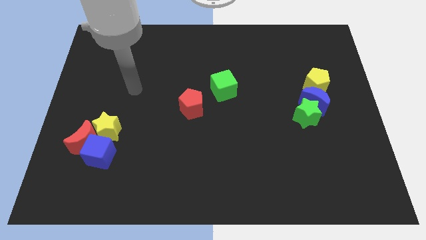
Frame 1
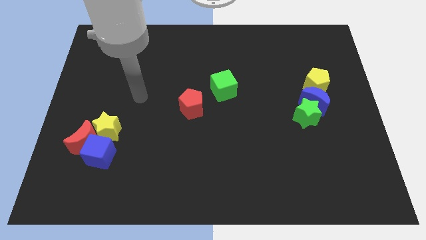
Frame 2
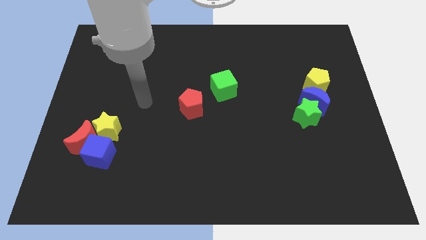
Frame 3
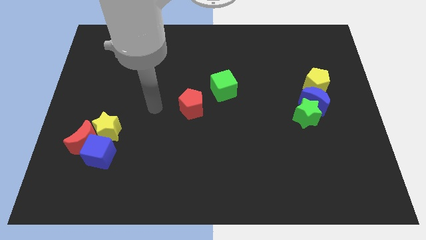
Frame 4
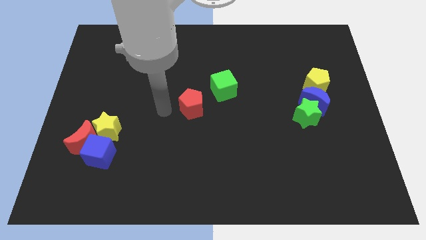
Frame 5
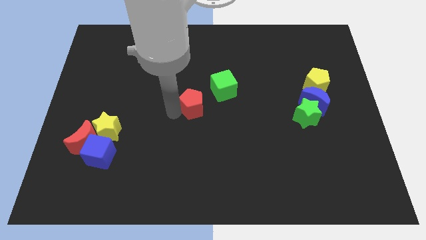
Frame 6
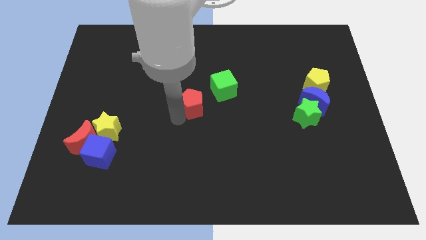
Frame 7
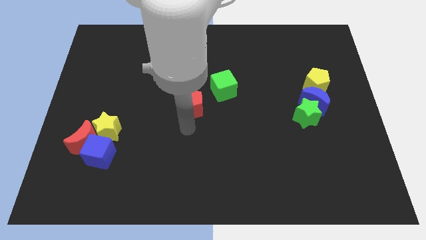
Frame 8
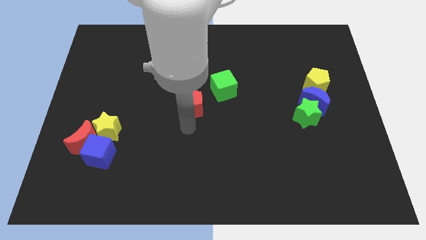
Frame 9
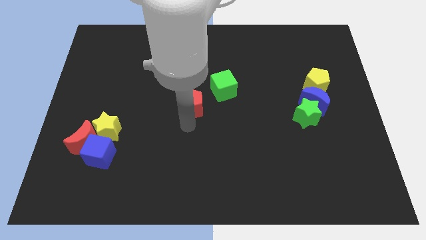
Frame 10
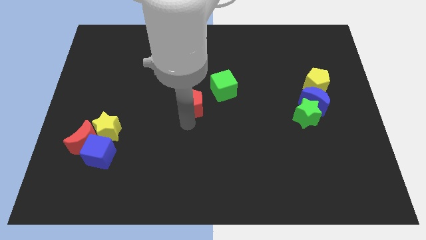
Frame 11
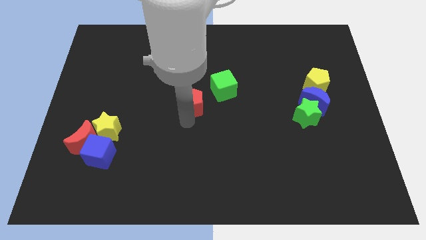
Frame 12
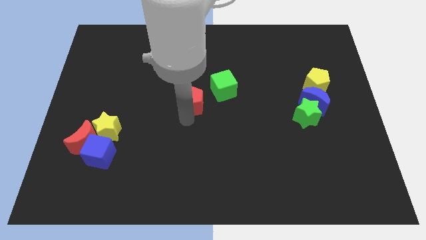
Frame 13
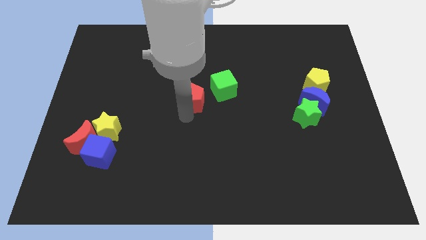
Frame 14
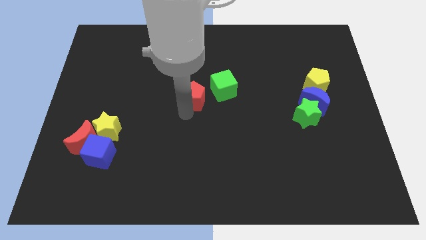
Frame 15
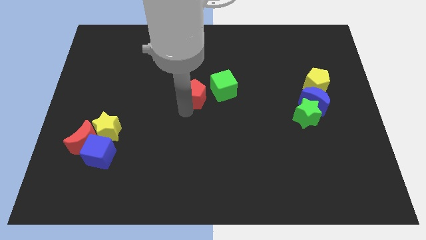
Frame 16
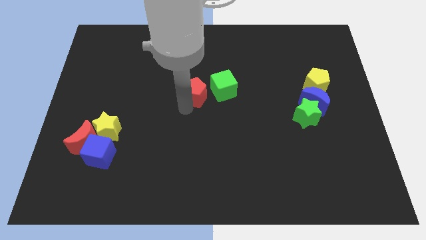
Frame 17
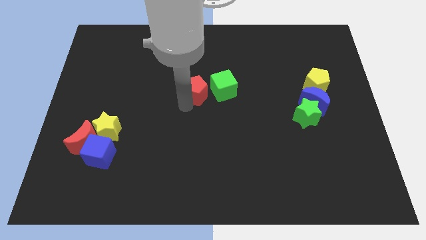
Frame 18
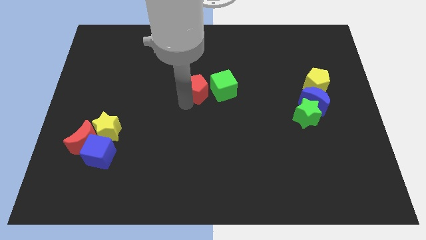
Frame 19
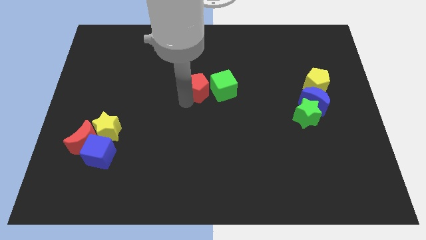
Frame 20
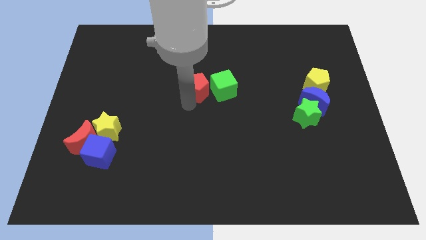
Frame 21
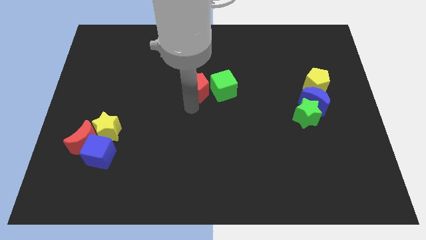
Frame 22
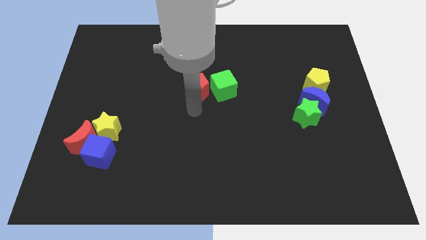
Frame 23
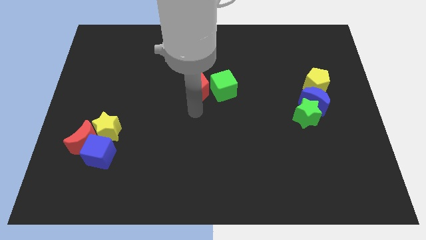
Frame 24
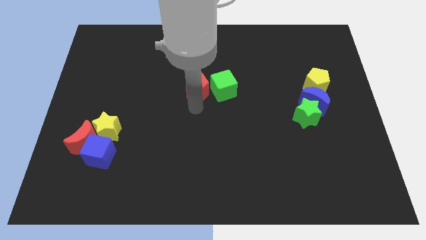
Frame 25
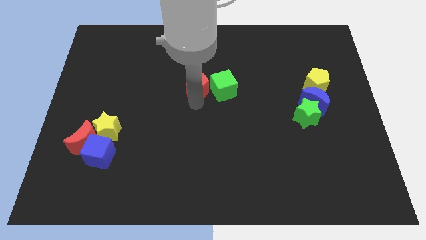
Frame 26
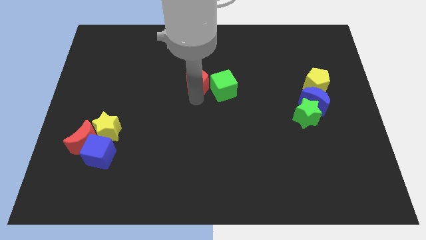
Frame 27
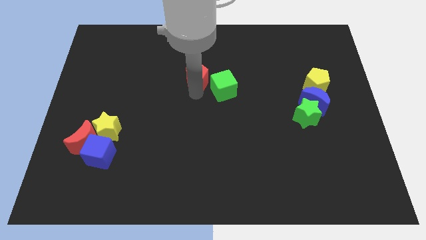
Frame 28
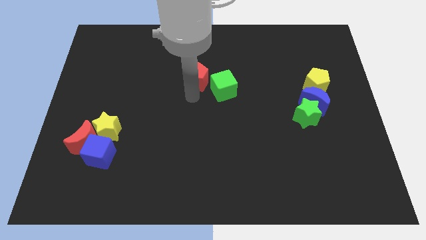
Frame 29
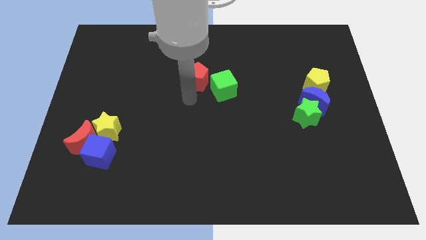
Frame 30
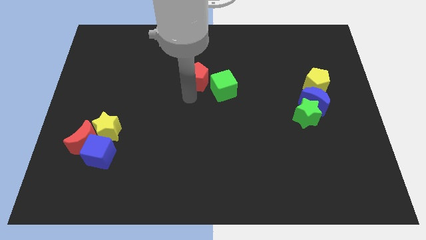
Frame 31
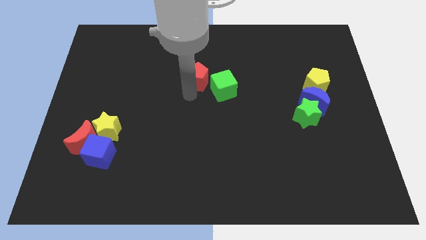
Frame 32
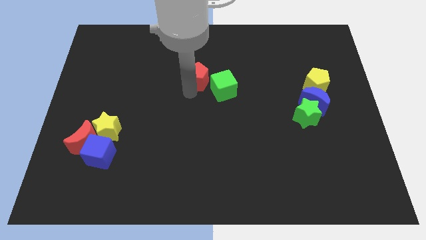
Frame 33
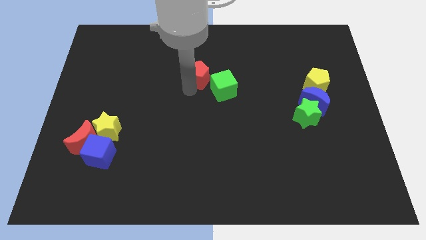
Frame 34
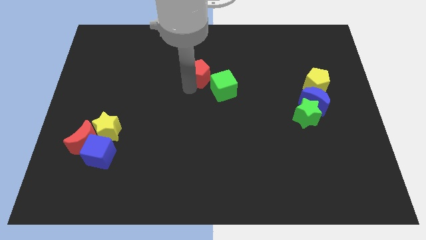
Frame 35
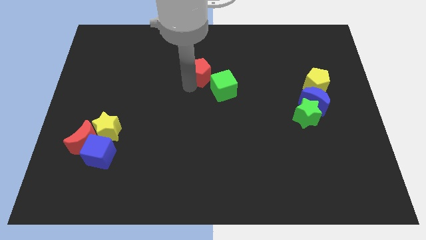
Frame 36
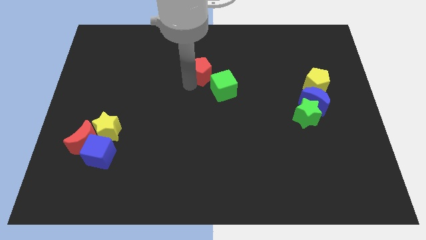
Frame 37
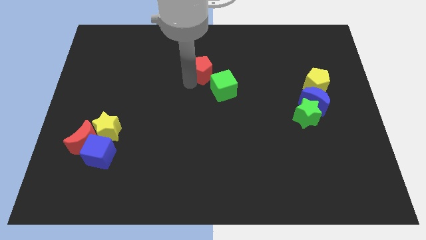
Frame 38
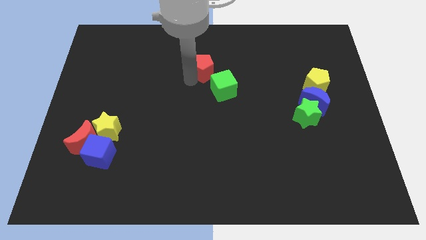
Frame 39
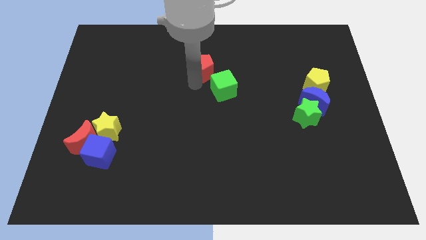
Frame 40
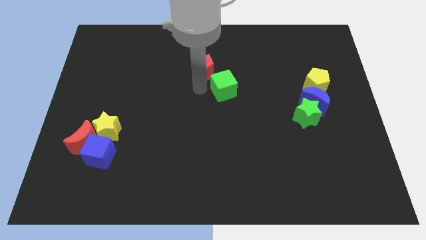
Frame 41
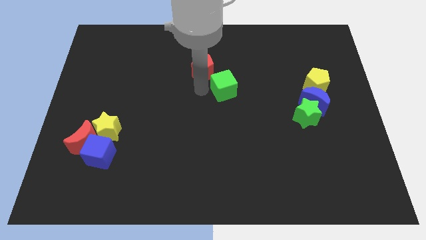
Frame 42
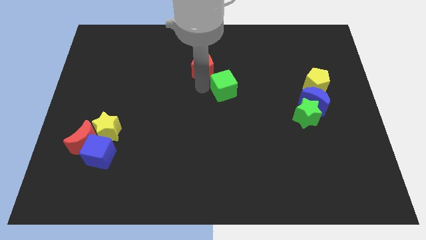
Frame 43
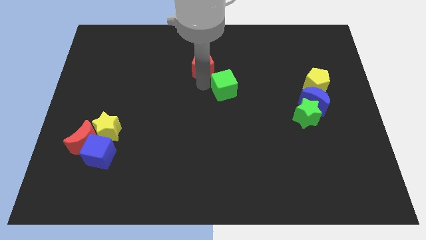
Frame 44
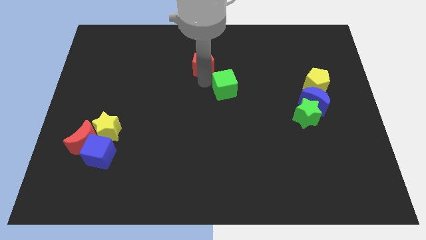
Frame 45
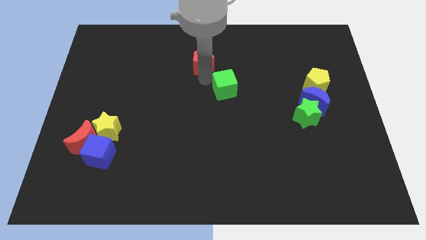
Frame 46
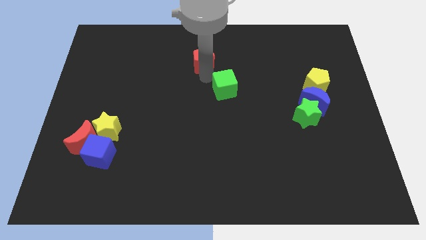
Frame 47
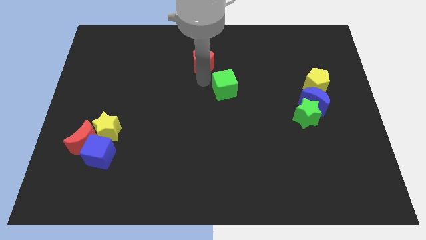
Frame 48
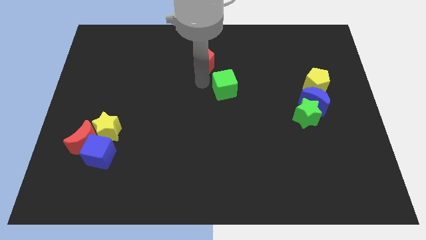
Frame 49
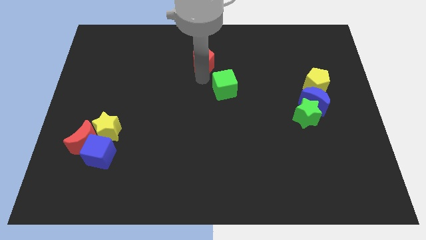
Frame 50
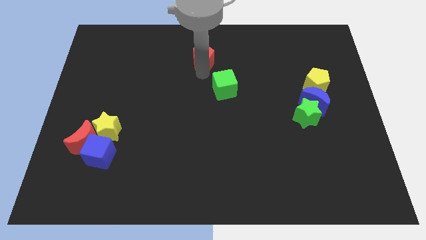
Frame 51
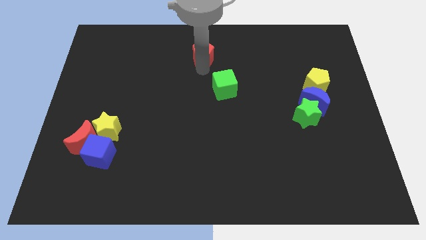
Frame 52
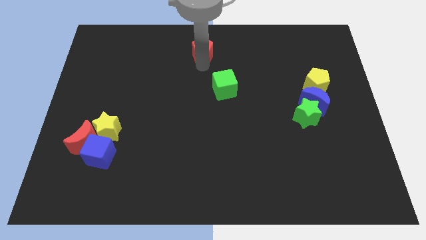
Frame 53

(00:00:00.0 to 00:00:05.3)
slide the red pentagon to the top side

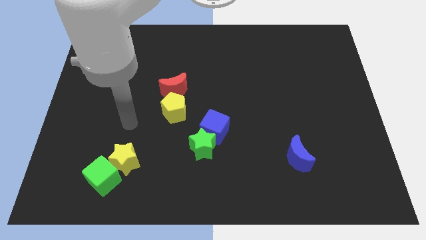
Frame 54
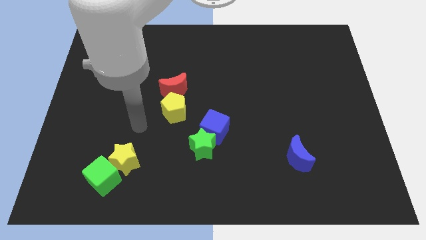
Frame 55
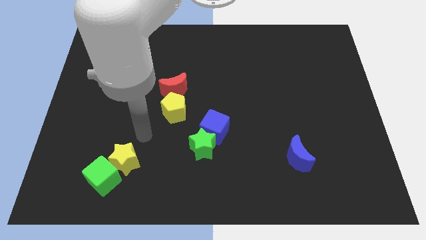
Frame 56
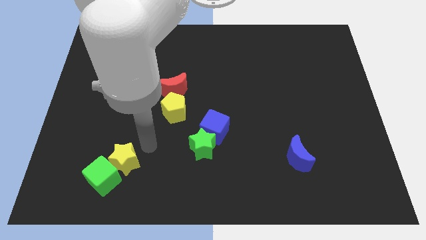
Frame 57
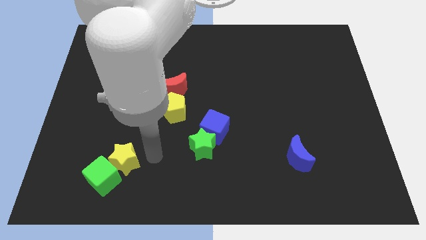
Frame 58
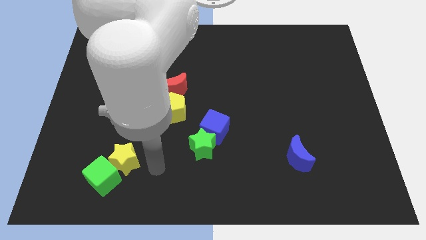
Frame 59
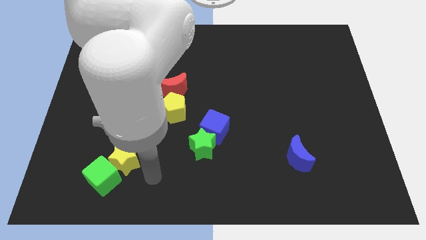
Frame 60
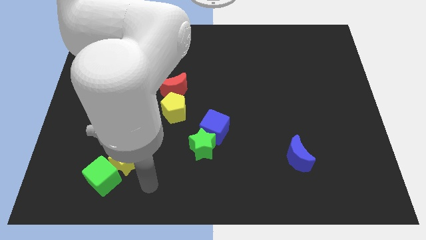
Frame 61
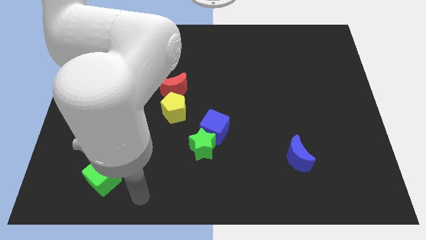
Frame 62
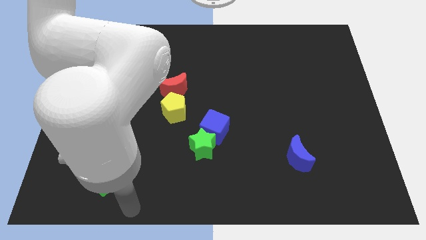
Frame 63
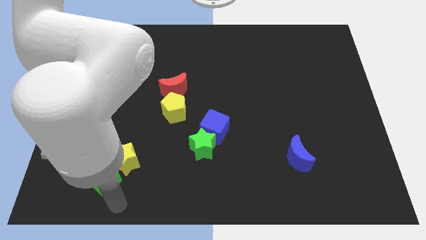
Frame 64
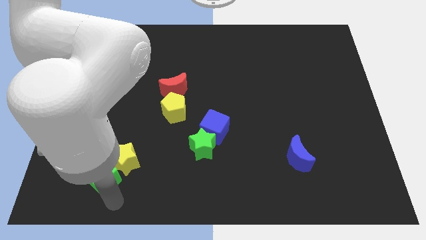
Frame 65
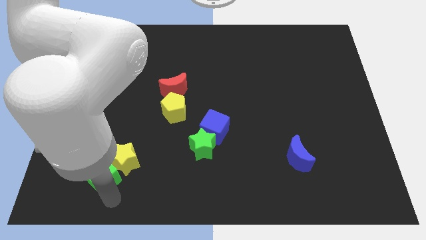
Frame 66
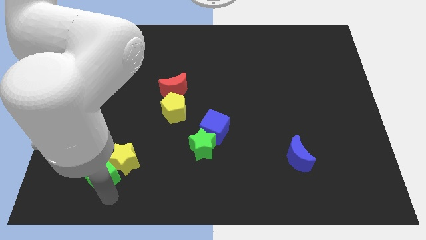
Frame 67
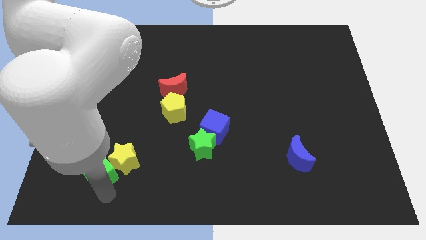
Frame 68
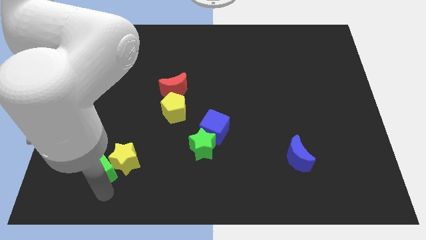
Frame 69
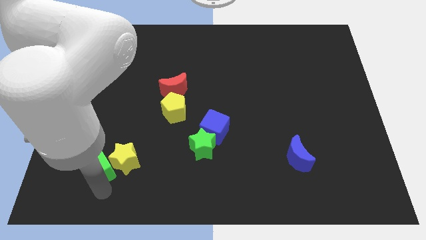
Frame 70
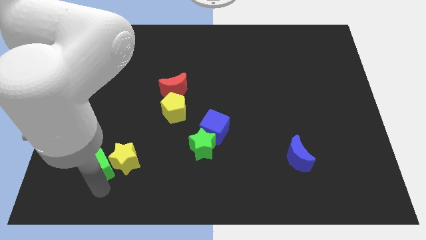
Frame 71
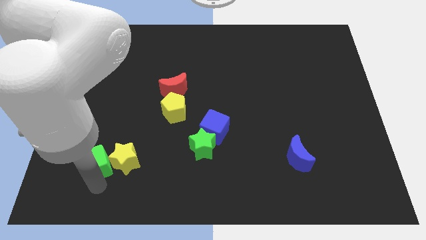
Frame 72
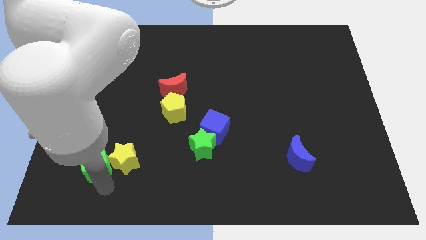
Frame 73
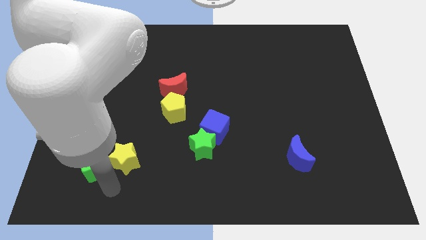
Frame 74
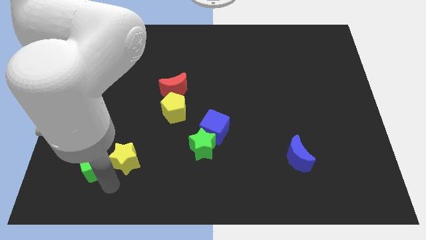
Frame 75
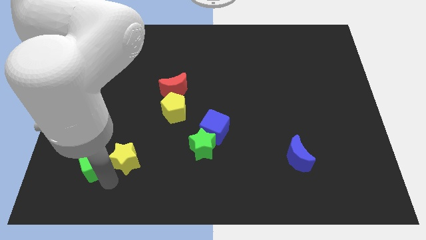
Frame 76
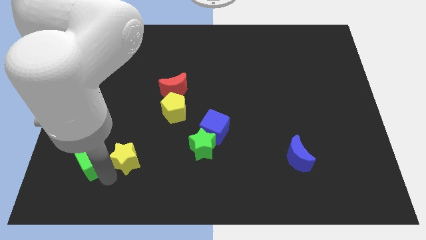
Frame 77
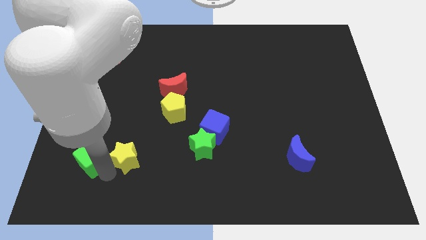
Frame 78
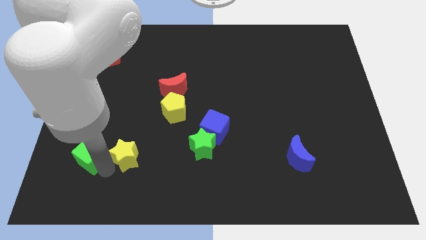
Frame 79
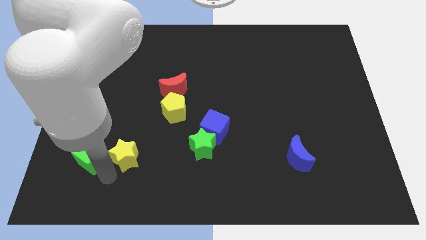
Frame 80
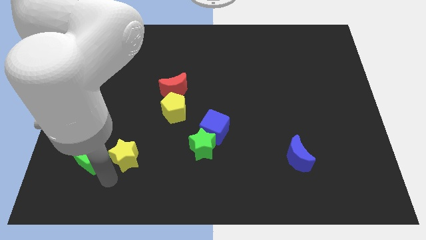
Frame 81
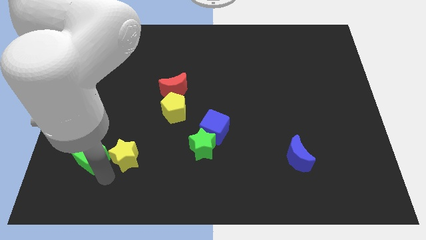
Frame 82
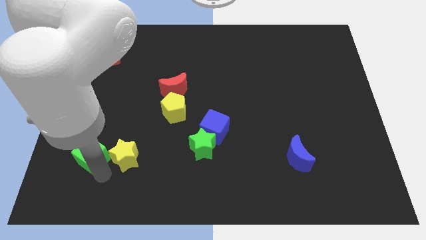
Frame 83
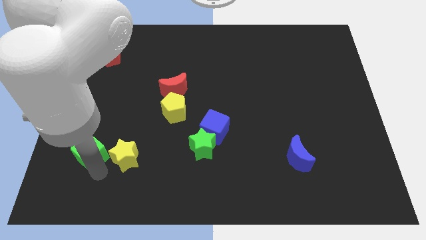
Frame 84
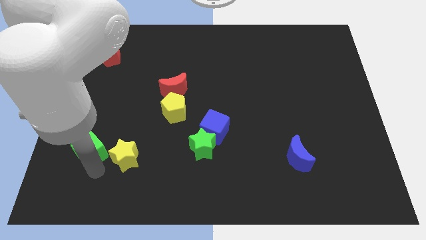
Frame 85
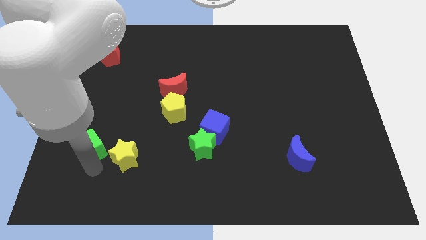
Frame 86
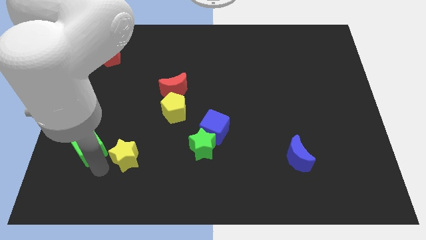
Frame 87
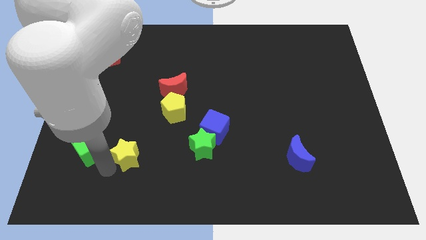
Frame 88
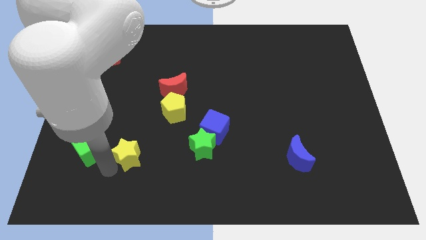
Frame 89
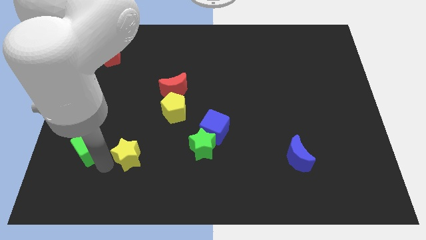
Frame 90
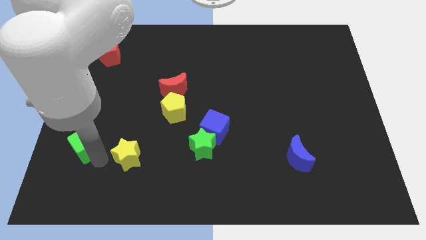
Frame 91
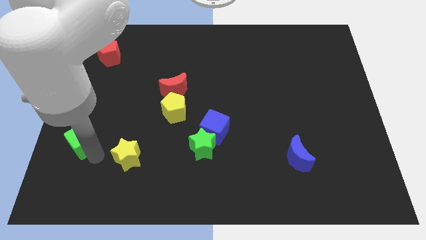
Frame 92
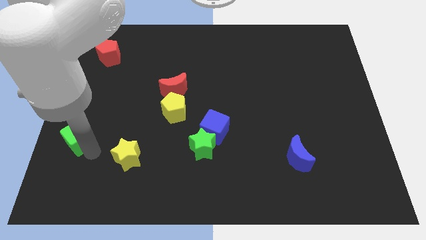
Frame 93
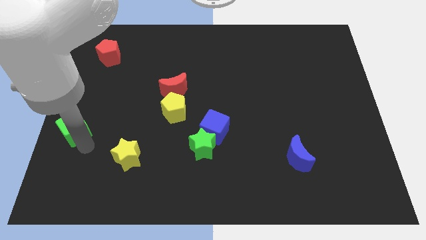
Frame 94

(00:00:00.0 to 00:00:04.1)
slide the green cube to the center left
